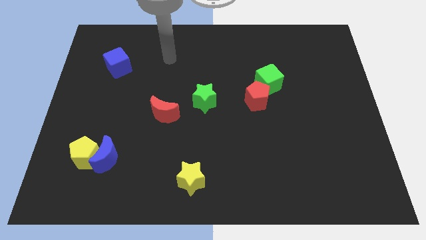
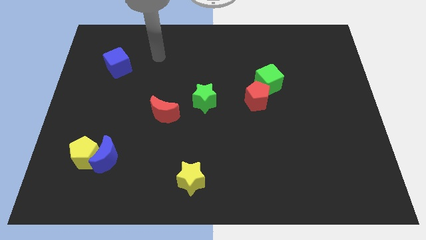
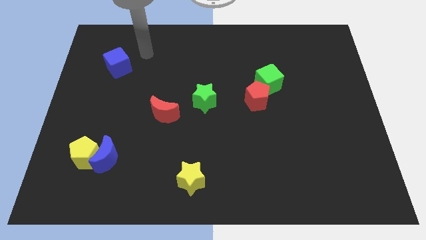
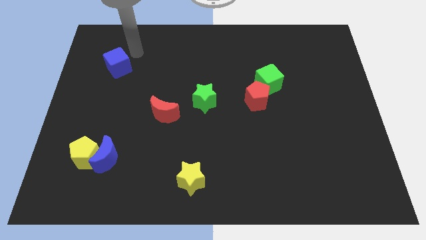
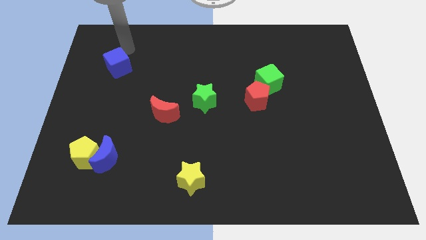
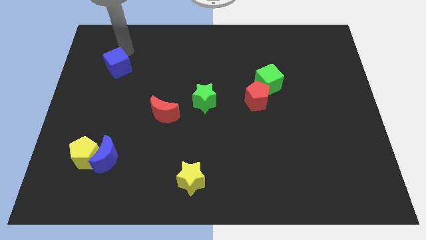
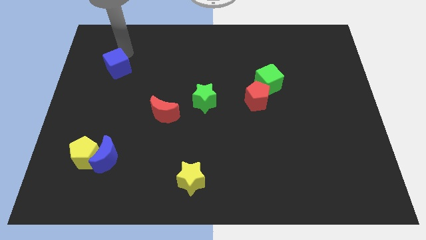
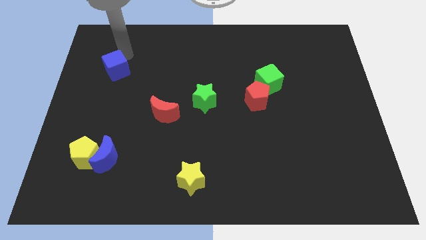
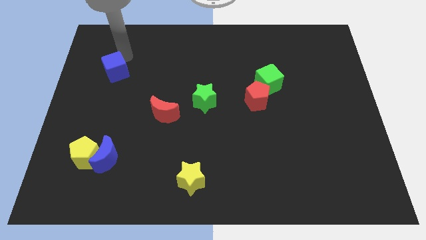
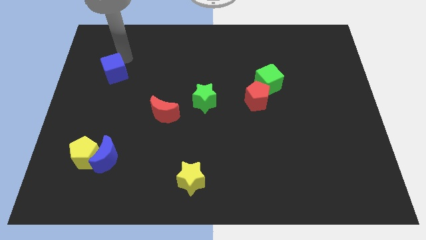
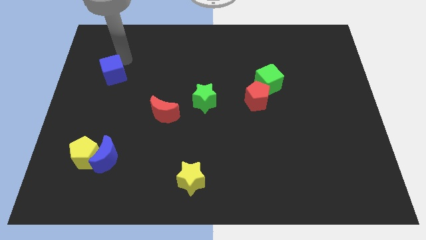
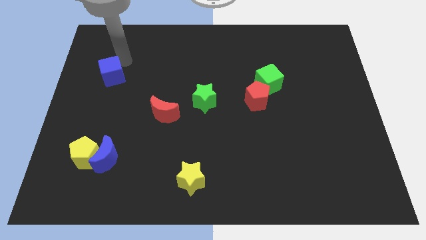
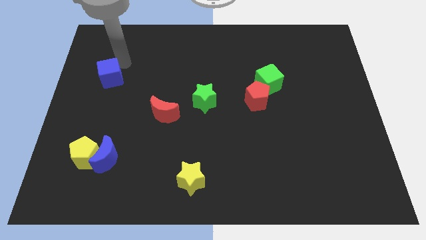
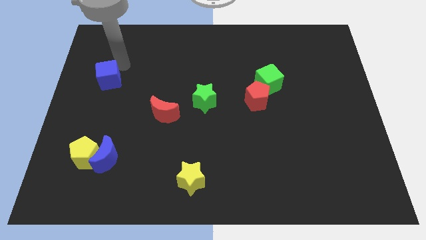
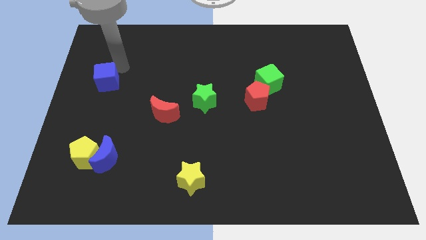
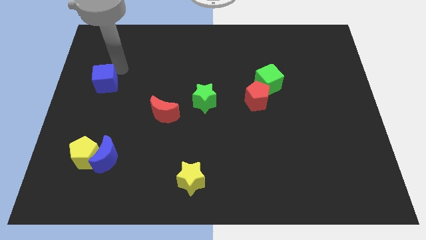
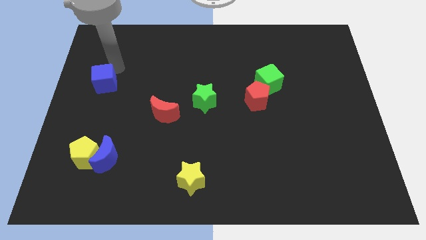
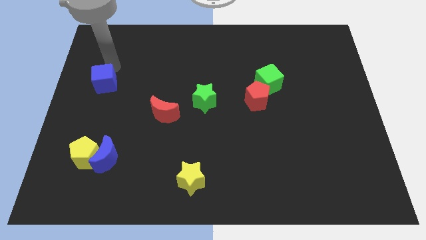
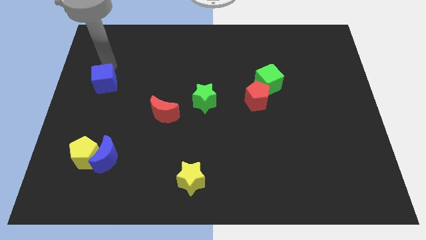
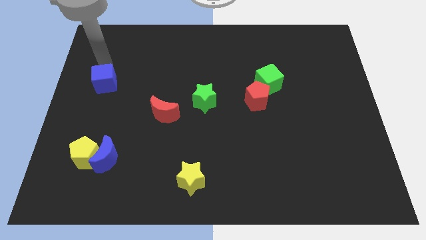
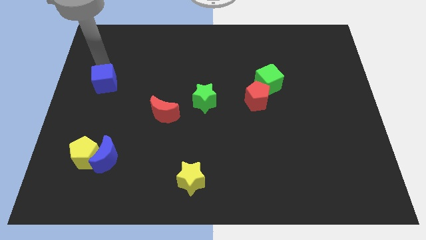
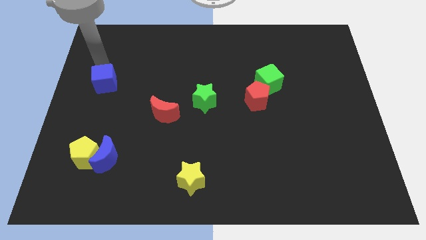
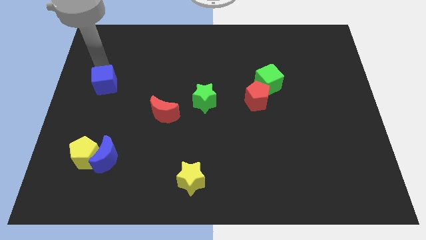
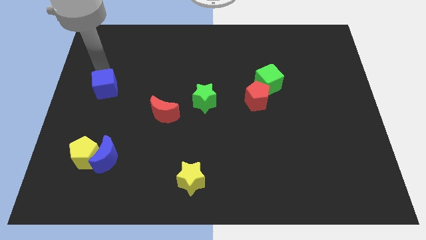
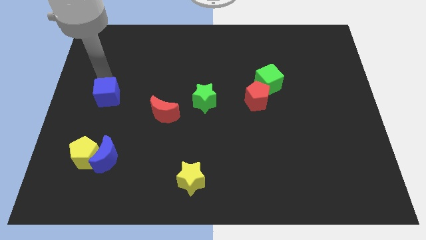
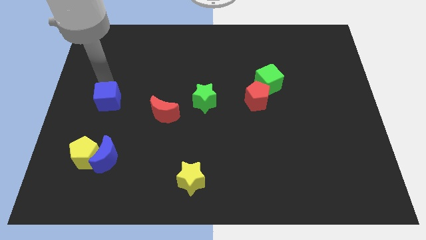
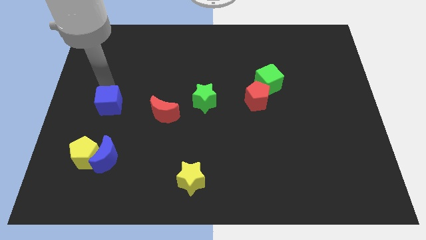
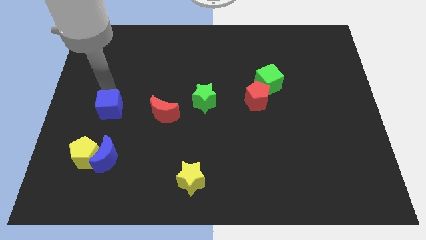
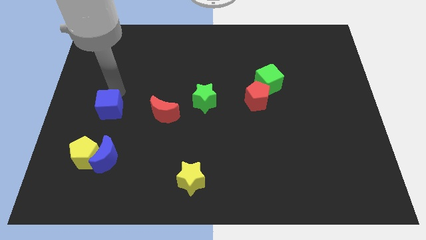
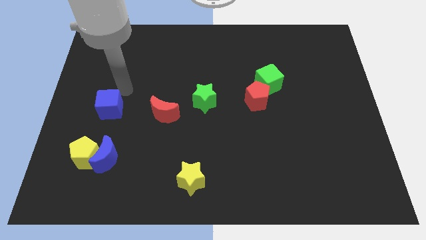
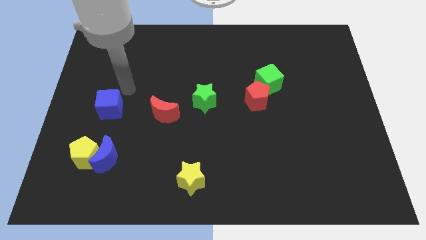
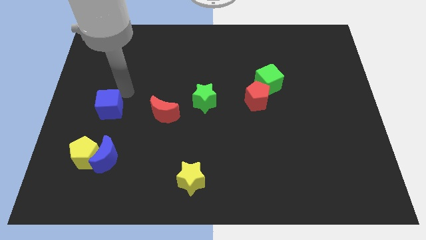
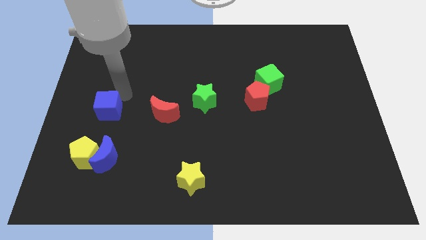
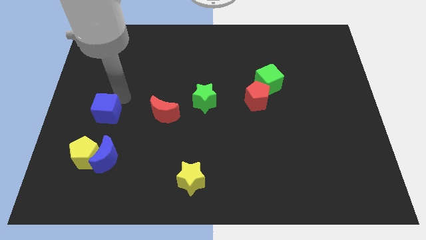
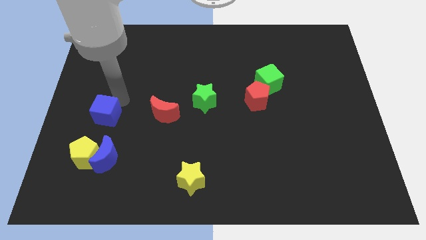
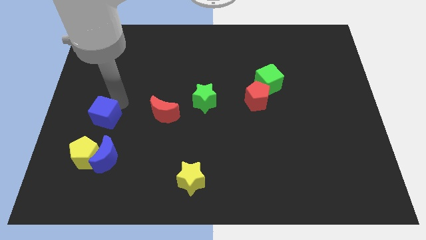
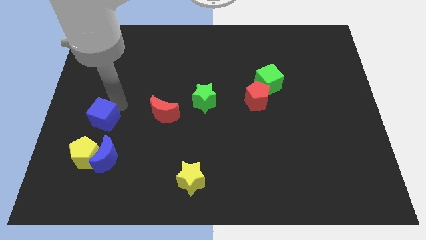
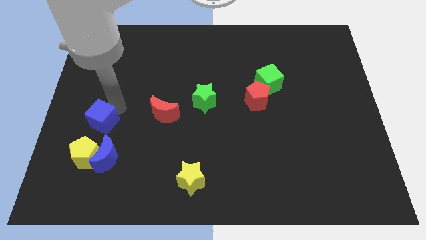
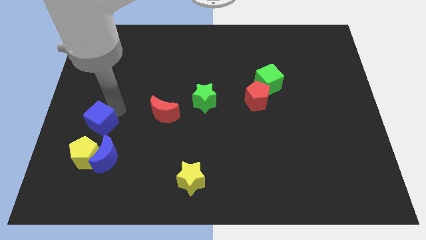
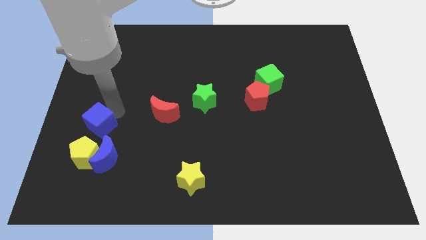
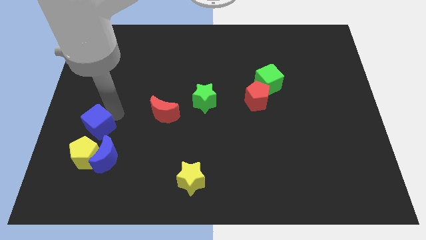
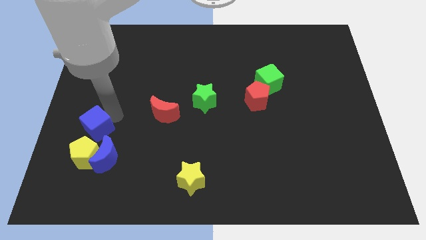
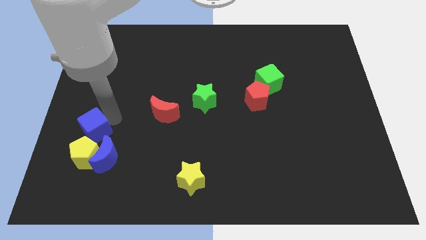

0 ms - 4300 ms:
slide the blue cube down

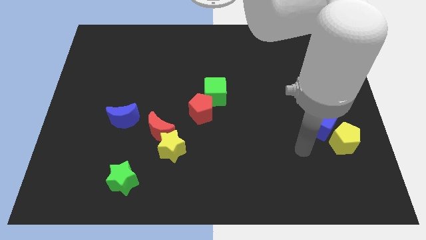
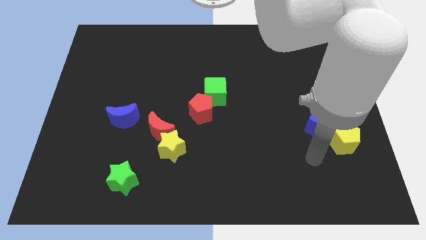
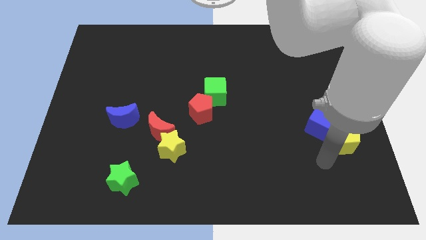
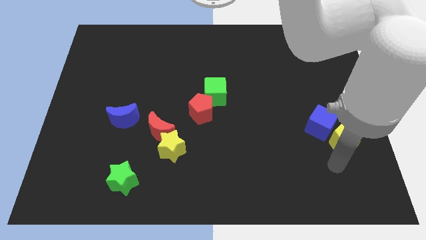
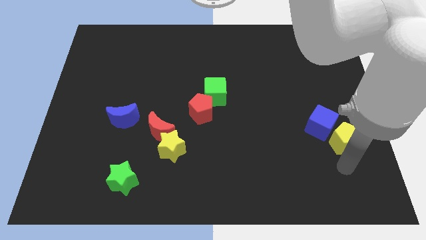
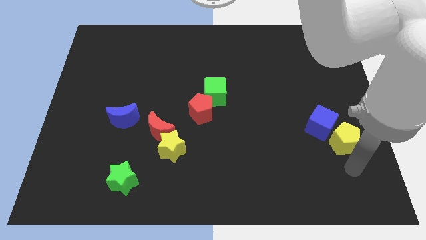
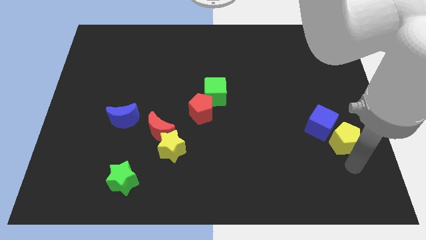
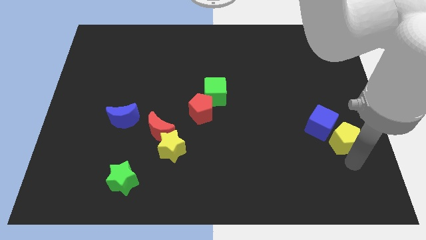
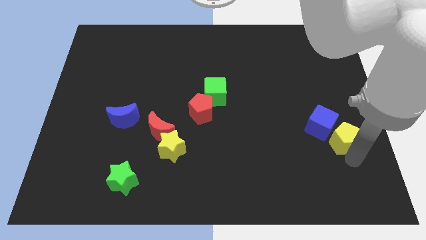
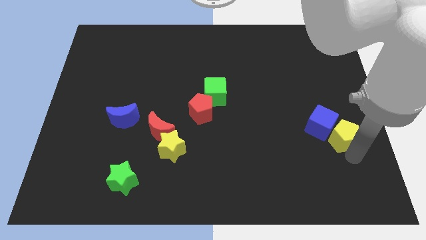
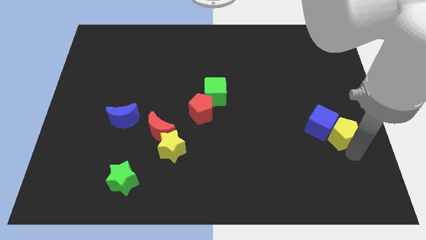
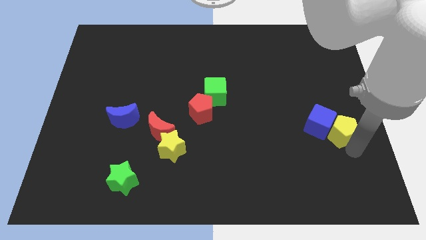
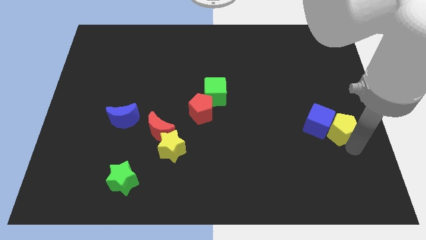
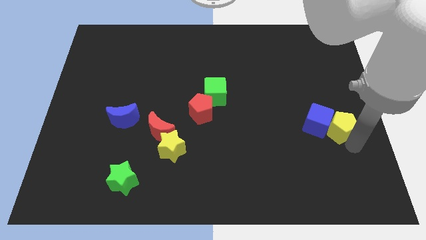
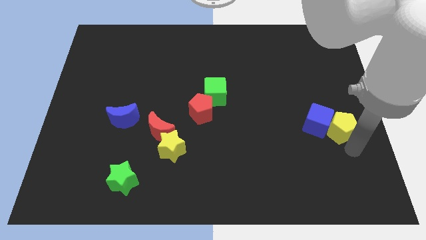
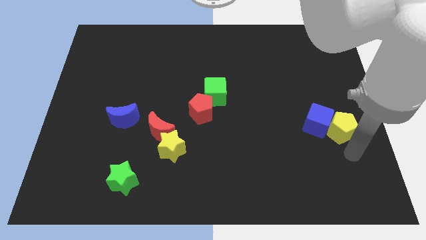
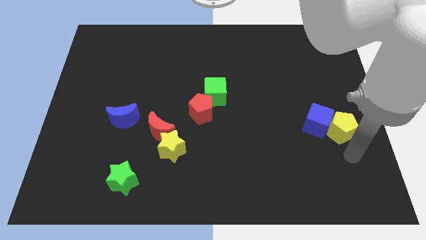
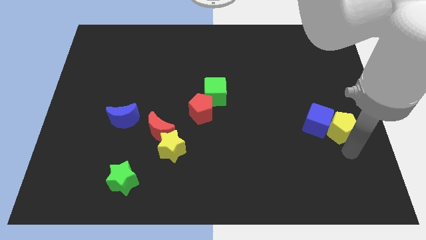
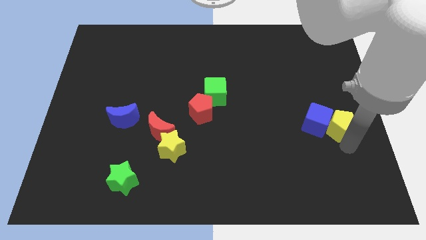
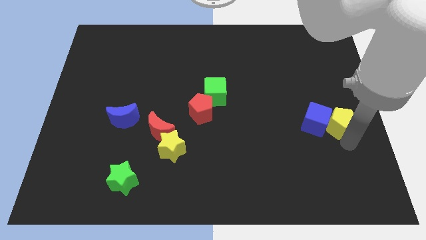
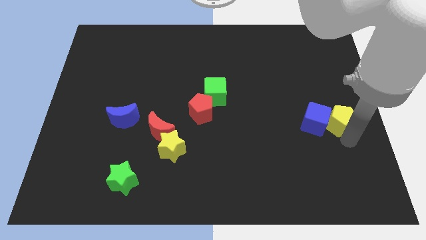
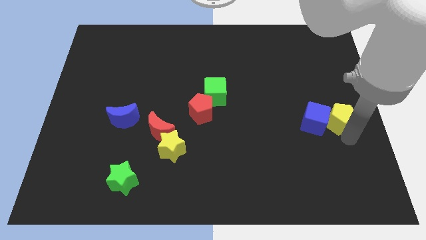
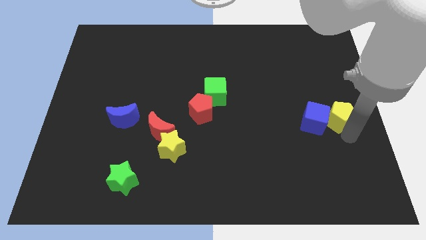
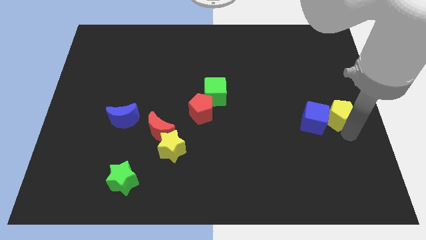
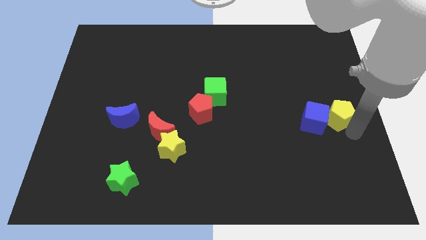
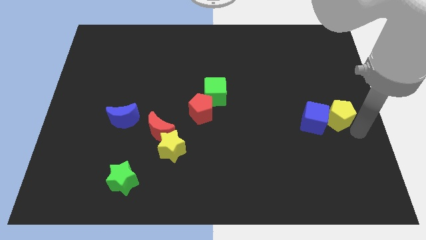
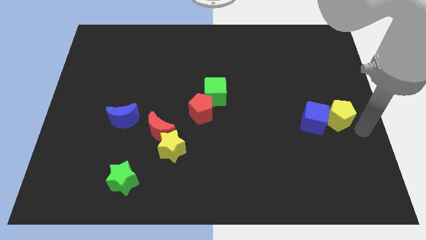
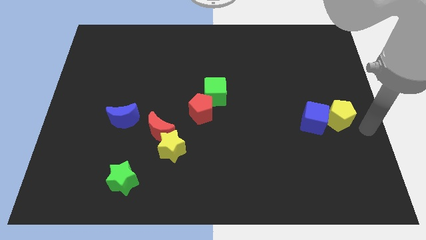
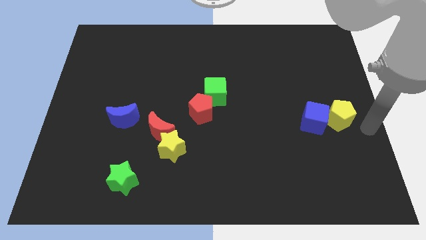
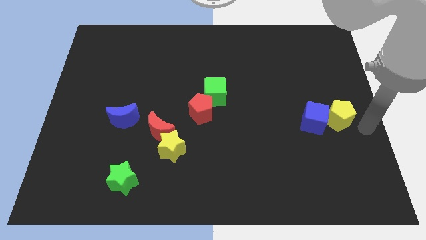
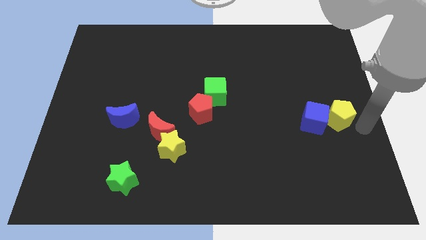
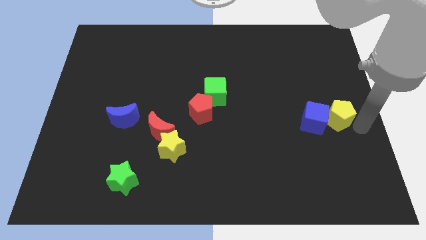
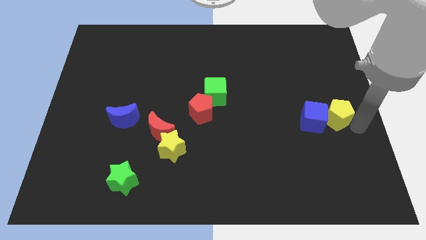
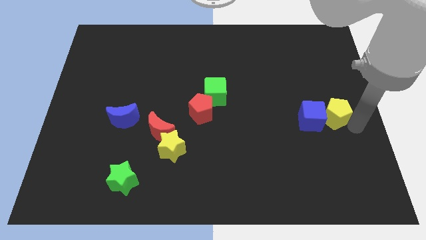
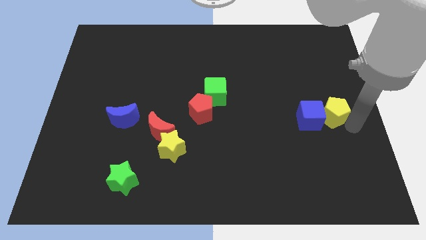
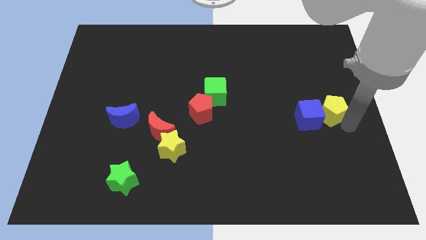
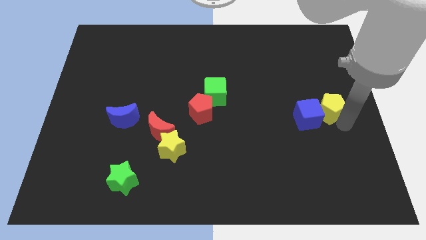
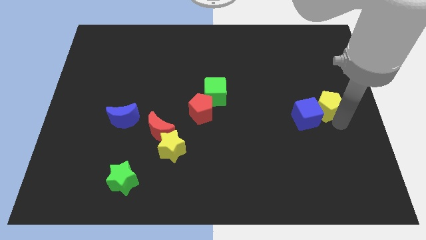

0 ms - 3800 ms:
move the yellow pentagon somewhat diagonally upwards and left

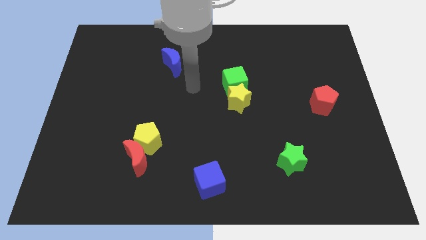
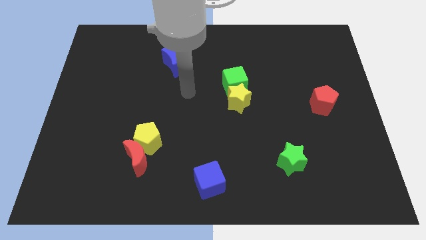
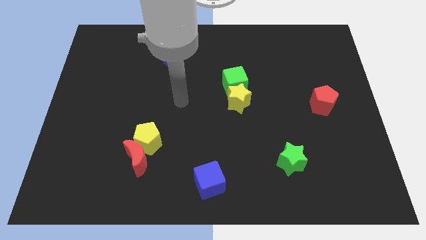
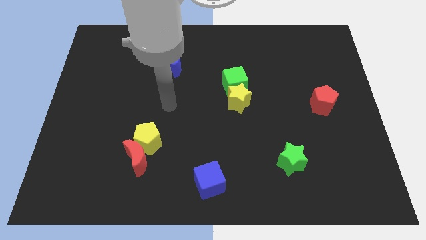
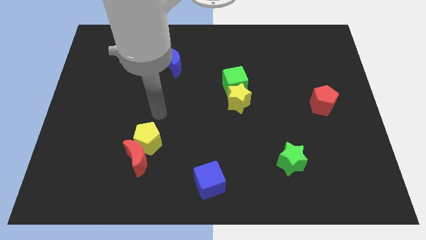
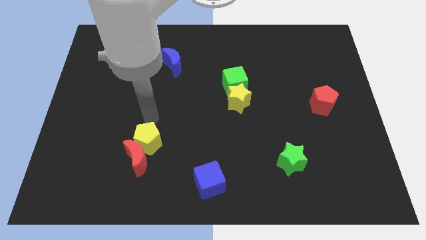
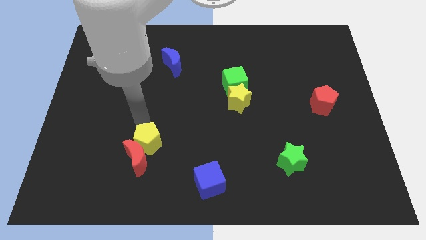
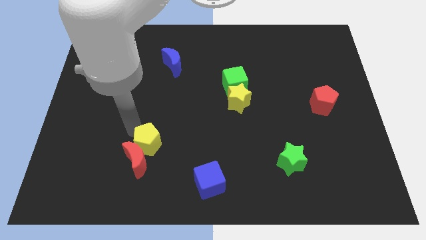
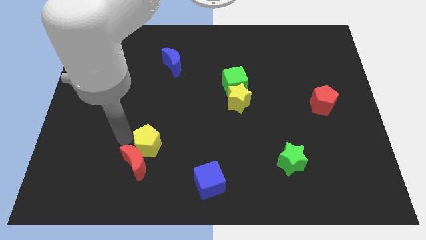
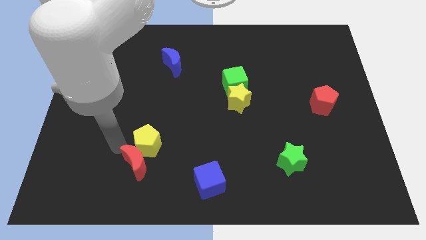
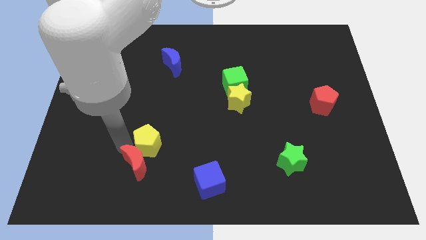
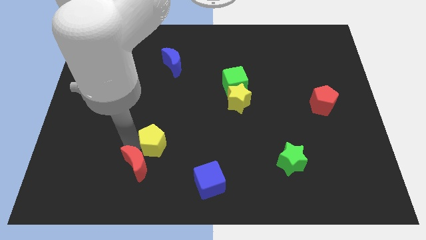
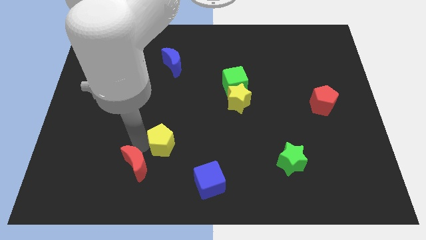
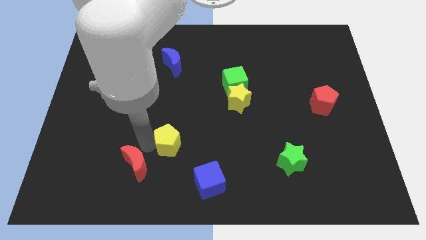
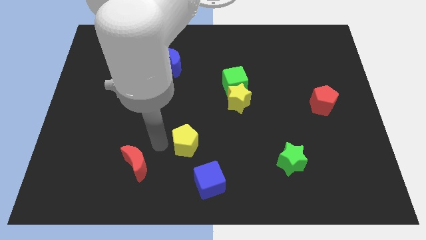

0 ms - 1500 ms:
push the yellow pentagon a little to the right
